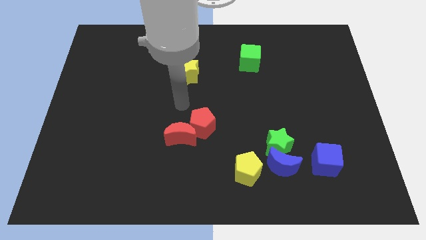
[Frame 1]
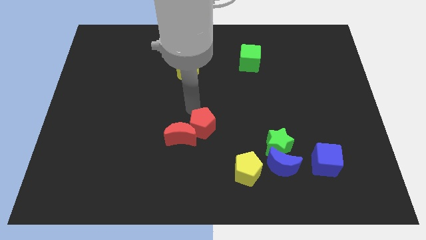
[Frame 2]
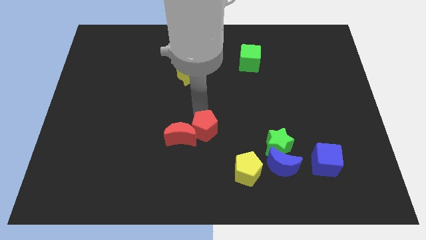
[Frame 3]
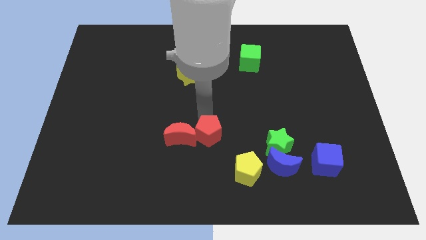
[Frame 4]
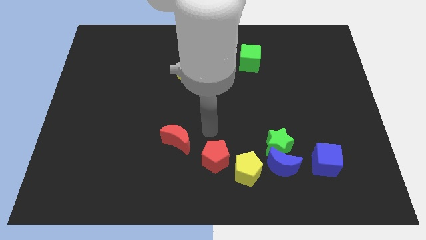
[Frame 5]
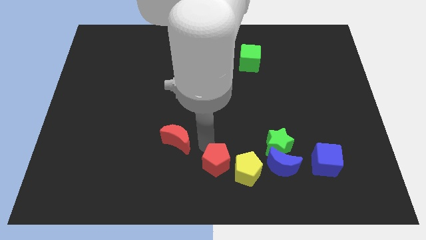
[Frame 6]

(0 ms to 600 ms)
move the red moon away from the red pentagon

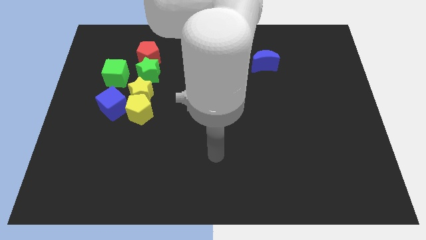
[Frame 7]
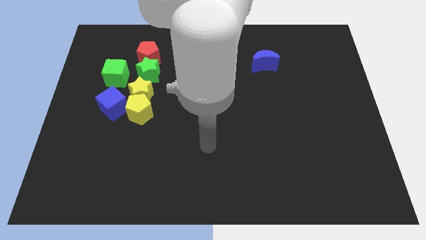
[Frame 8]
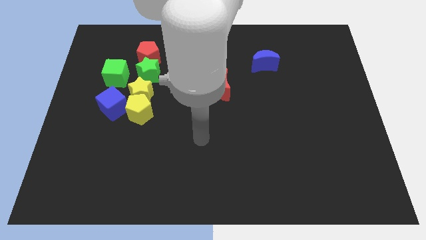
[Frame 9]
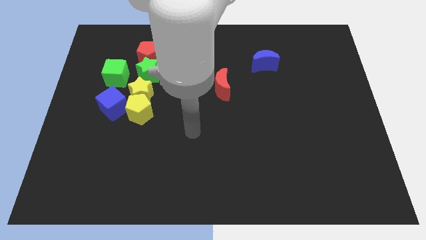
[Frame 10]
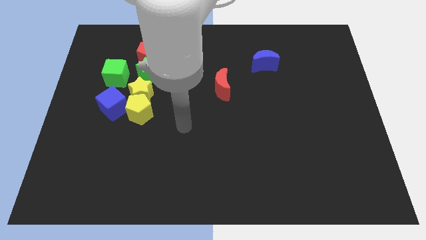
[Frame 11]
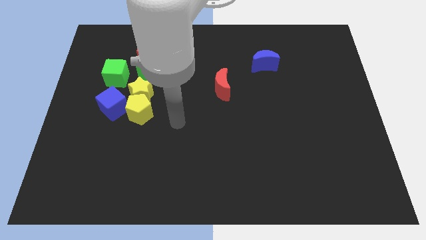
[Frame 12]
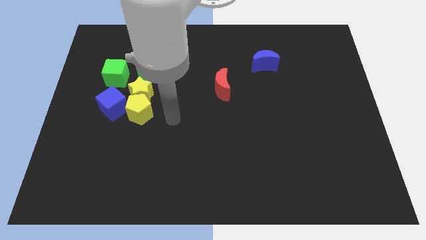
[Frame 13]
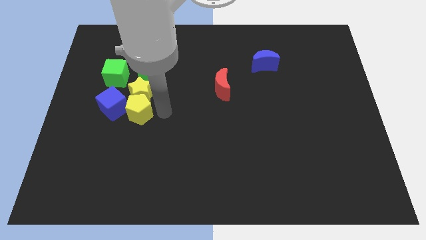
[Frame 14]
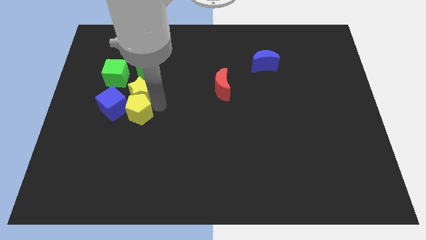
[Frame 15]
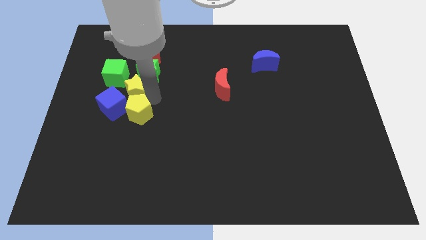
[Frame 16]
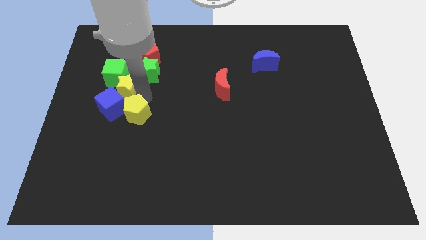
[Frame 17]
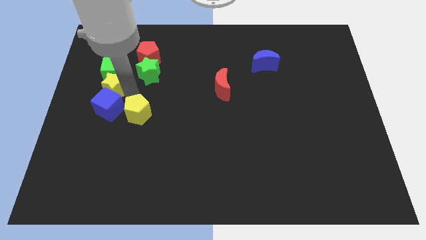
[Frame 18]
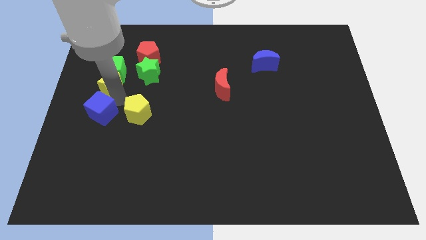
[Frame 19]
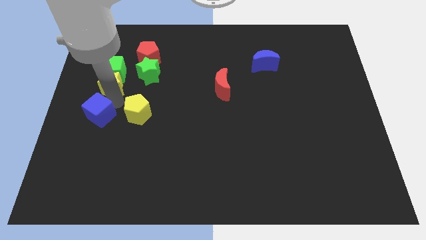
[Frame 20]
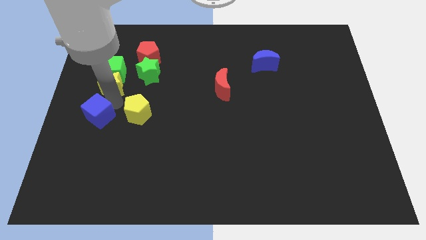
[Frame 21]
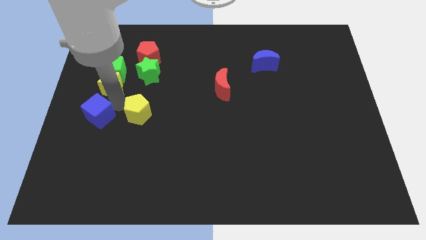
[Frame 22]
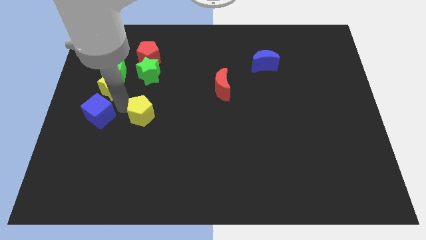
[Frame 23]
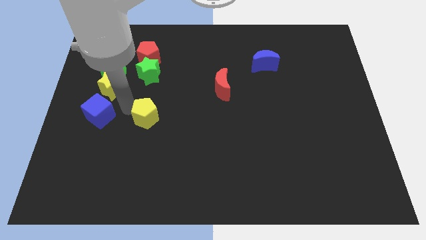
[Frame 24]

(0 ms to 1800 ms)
move the yellow pentagon away from the yellow star and blue cube

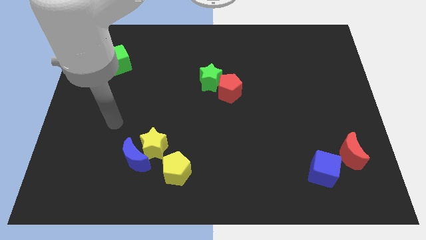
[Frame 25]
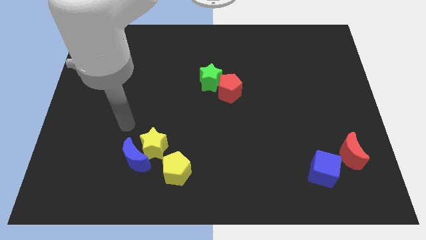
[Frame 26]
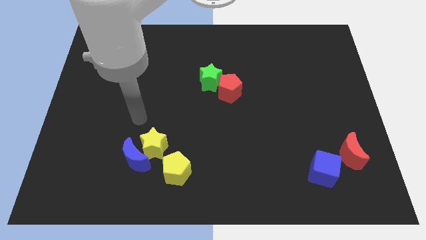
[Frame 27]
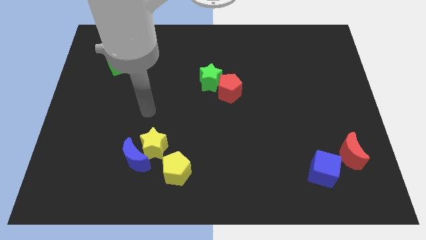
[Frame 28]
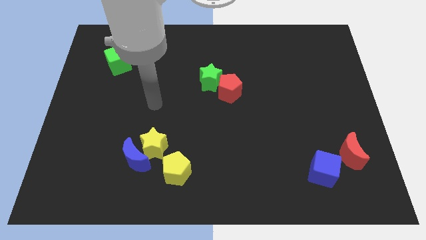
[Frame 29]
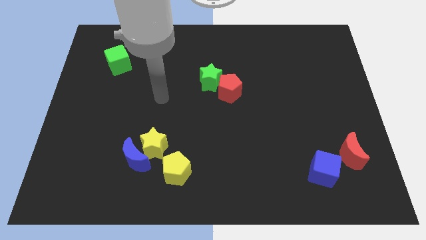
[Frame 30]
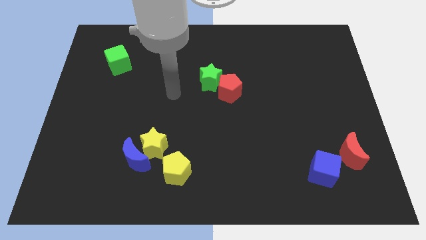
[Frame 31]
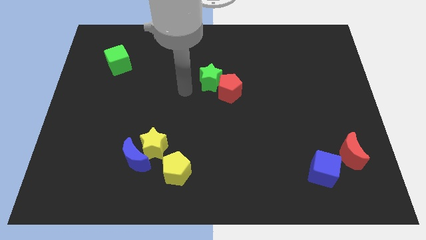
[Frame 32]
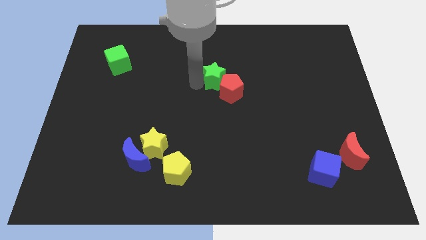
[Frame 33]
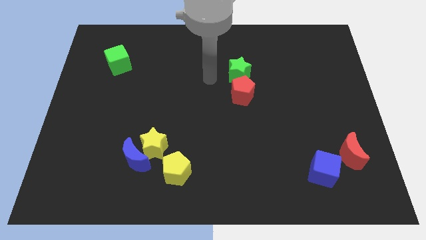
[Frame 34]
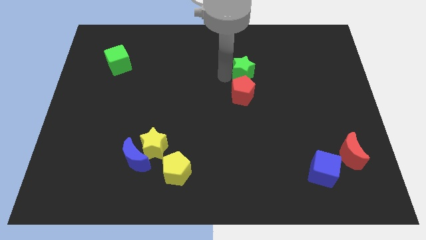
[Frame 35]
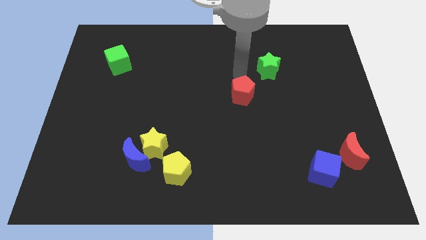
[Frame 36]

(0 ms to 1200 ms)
separate the red pentagon from the green star

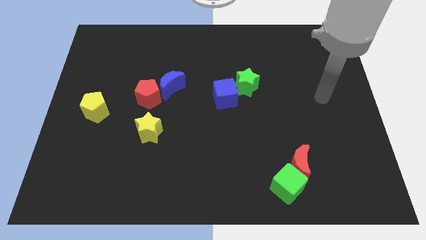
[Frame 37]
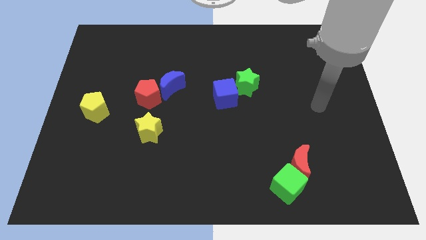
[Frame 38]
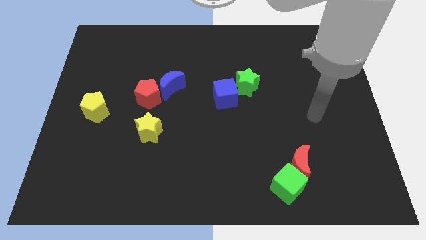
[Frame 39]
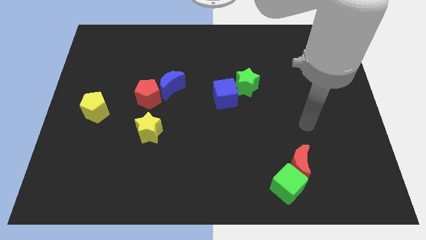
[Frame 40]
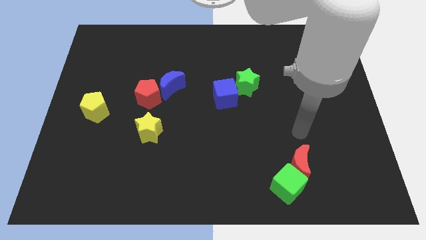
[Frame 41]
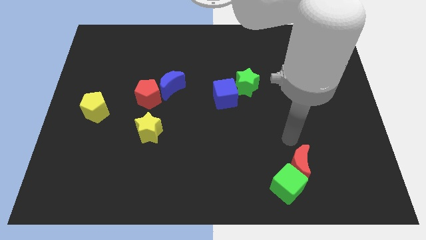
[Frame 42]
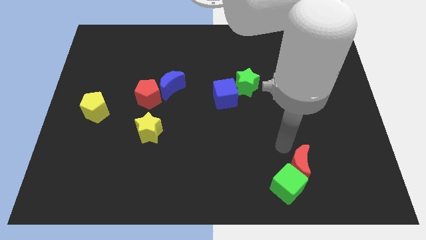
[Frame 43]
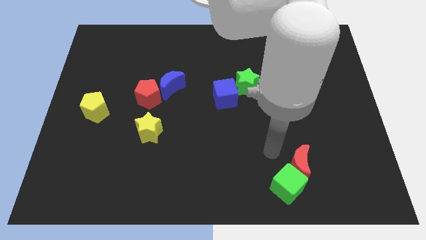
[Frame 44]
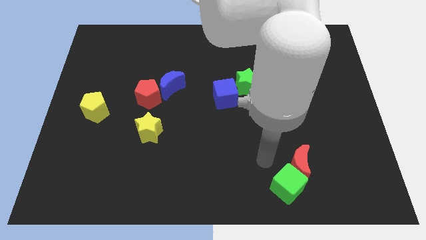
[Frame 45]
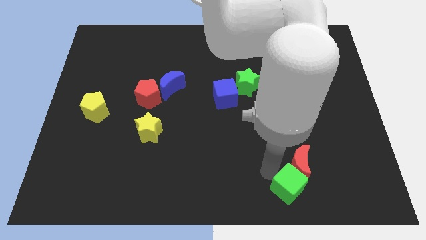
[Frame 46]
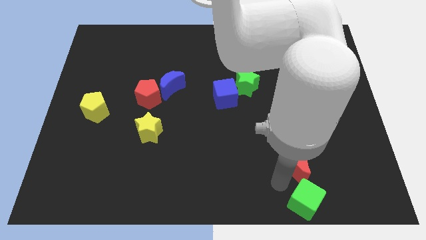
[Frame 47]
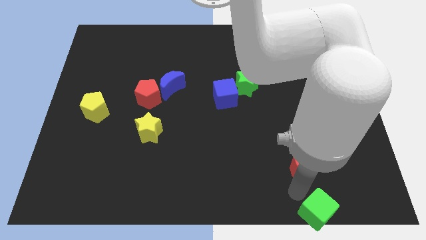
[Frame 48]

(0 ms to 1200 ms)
move the red moon away from the green cube

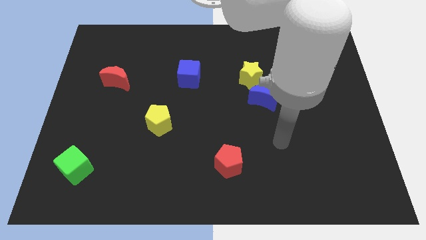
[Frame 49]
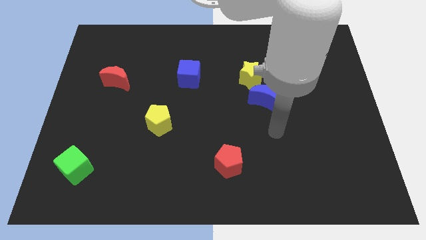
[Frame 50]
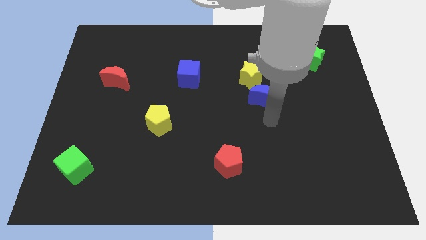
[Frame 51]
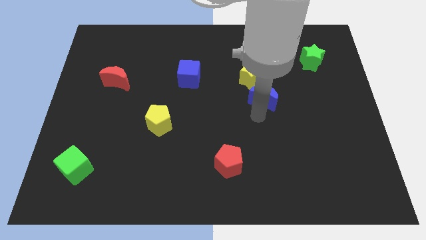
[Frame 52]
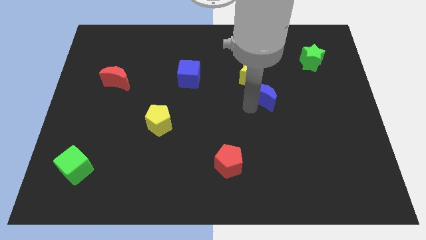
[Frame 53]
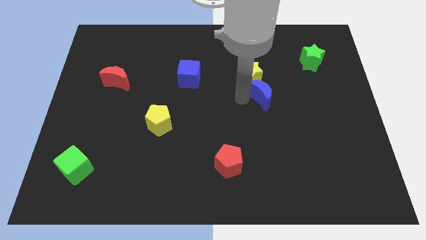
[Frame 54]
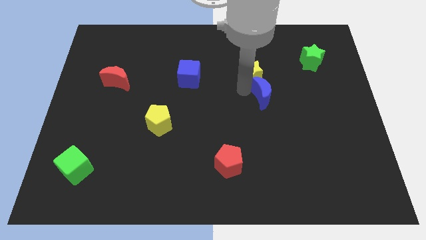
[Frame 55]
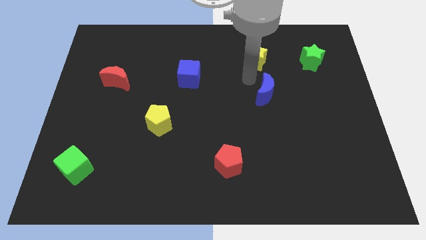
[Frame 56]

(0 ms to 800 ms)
pull the blue moon apart from the yellow star

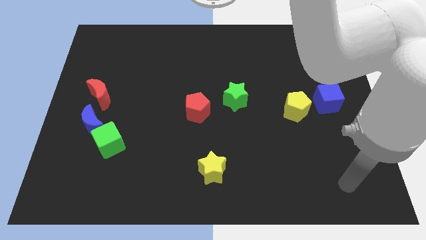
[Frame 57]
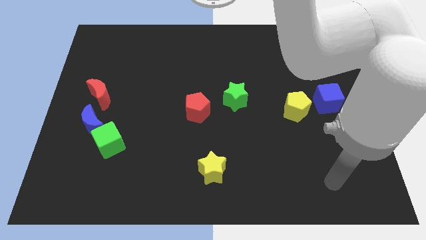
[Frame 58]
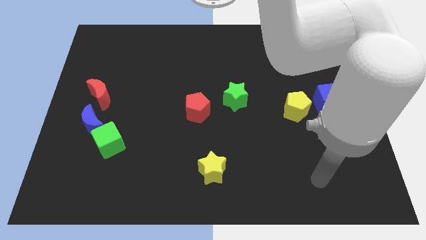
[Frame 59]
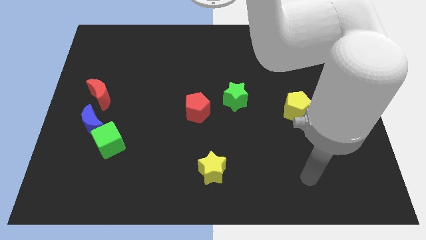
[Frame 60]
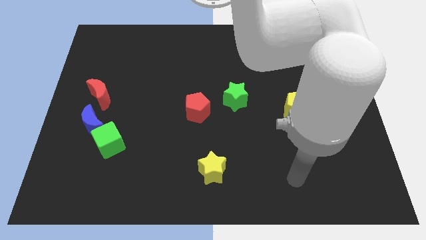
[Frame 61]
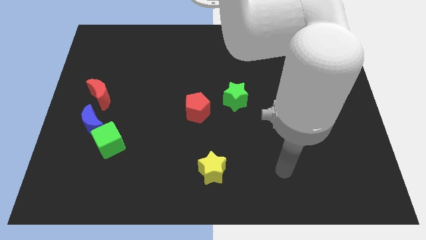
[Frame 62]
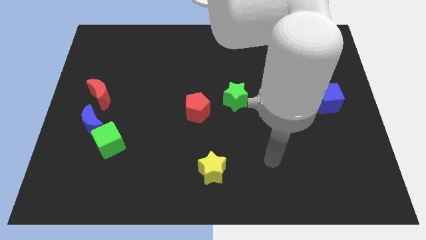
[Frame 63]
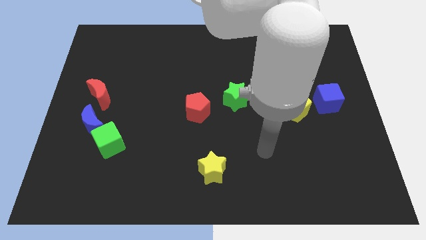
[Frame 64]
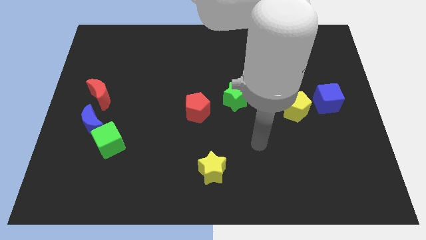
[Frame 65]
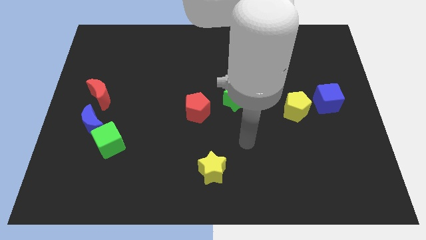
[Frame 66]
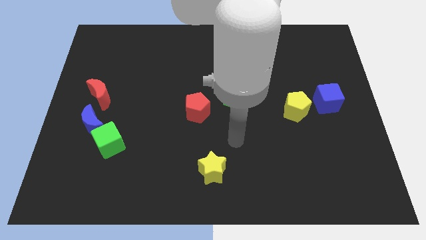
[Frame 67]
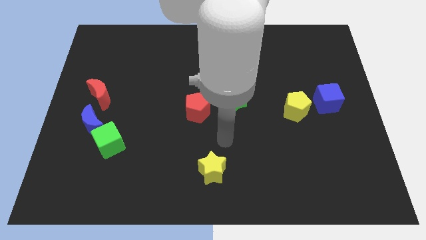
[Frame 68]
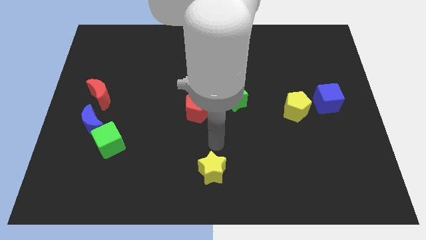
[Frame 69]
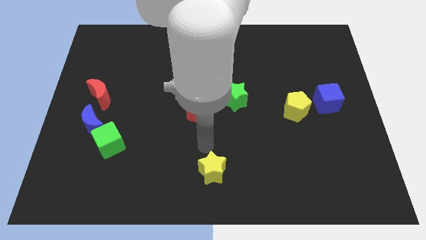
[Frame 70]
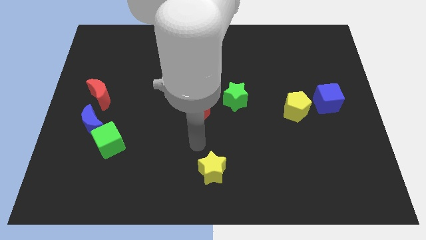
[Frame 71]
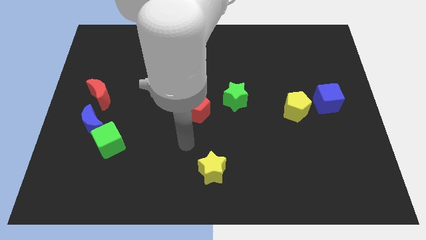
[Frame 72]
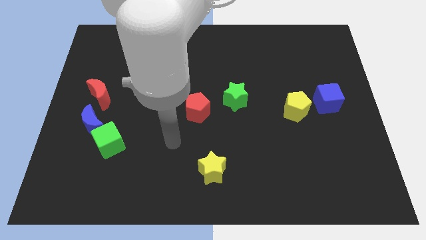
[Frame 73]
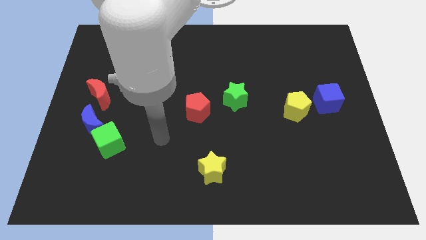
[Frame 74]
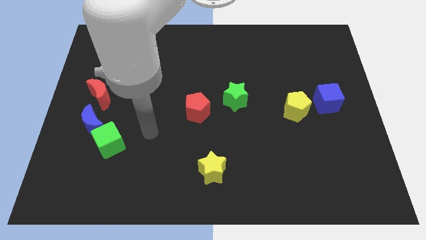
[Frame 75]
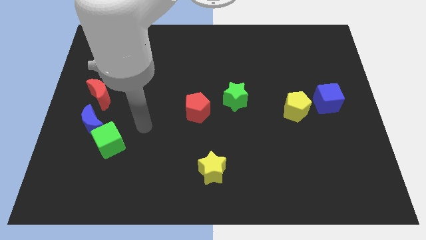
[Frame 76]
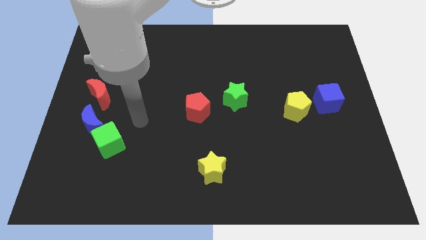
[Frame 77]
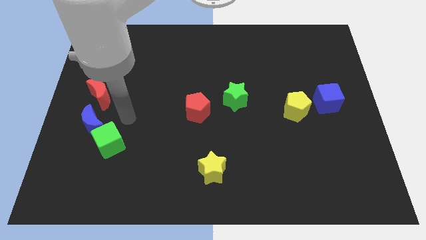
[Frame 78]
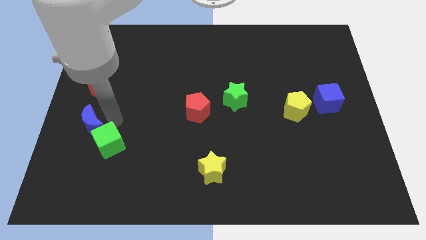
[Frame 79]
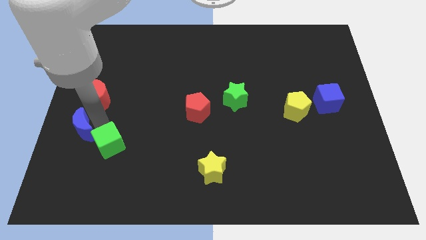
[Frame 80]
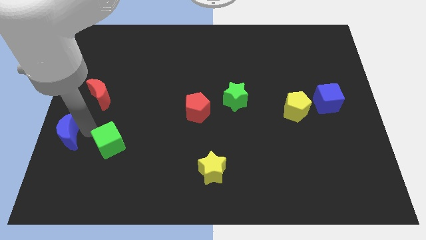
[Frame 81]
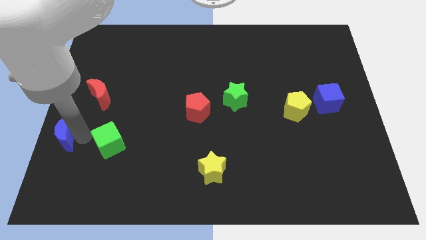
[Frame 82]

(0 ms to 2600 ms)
move the green cube away from the blue moon

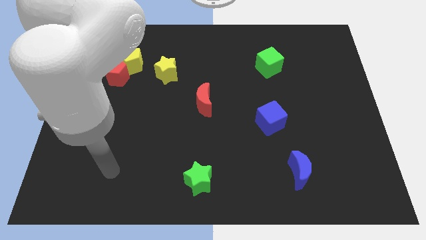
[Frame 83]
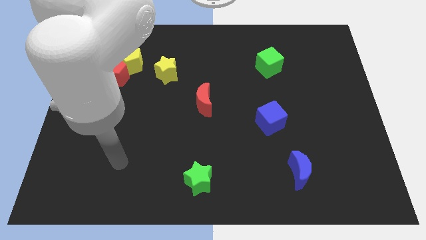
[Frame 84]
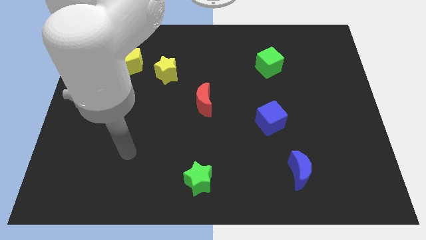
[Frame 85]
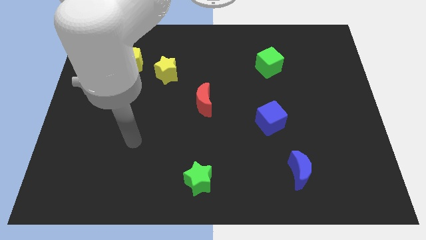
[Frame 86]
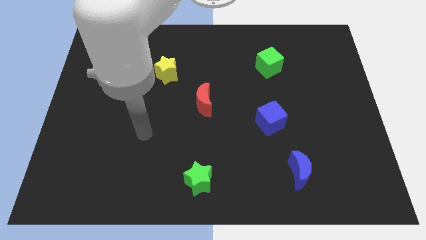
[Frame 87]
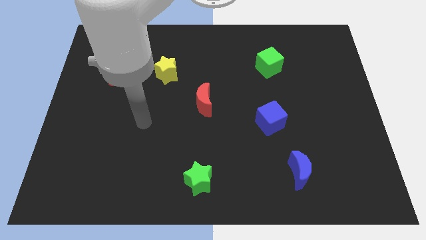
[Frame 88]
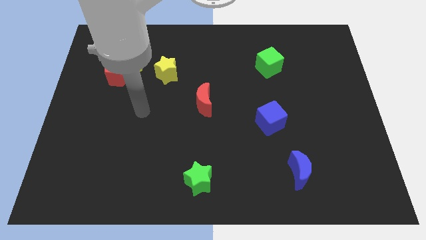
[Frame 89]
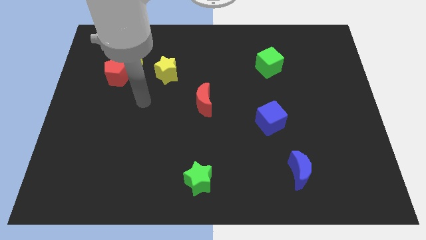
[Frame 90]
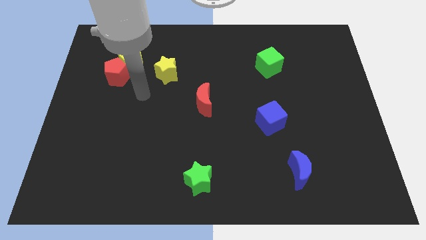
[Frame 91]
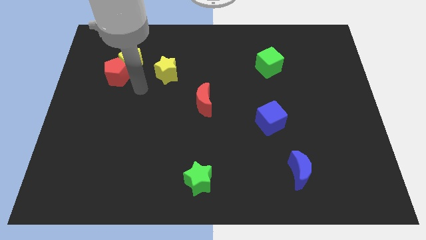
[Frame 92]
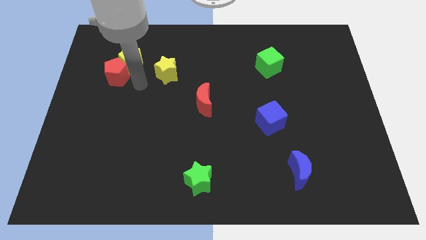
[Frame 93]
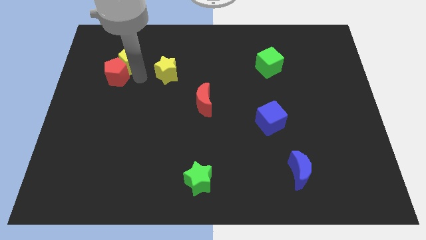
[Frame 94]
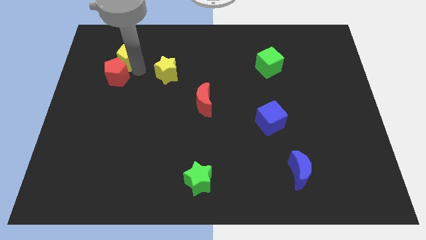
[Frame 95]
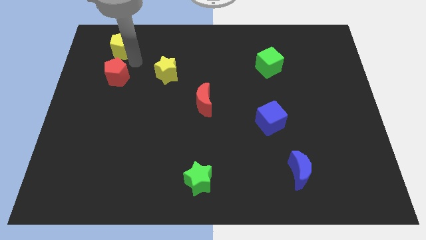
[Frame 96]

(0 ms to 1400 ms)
move the red pentagon away from the yellow pentagon
